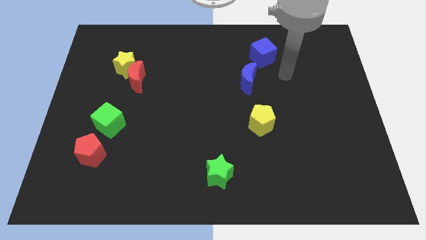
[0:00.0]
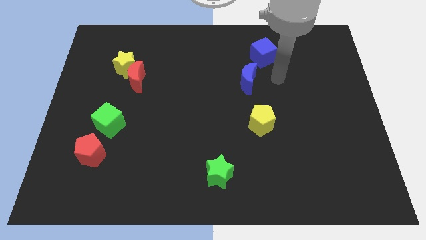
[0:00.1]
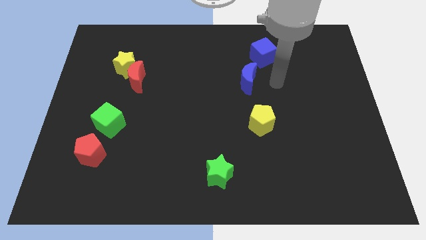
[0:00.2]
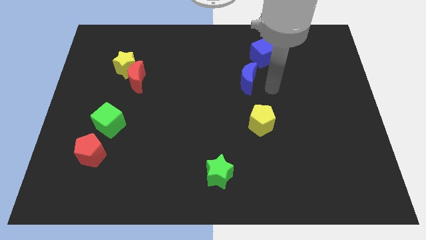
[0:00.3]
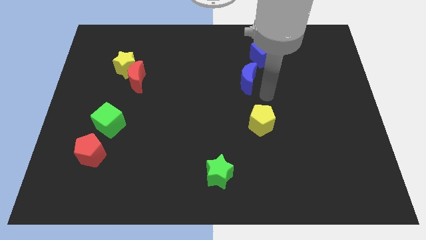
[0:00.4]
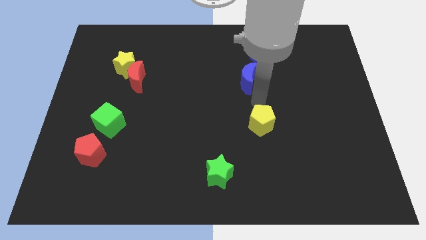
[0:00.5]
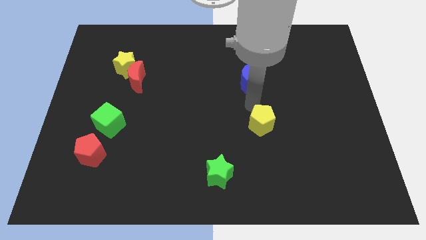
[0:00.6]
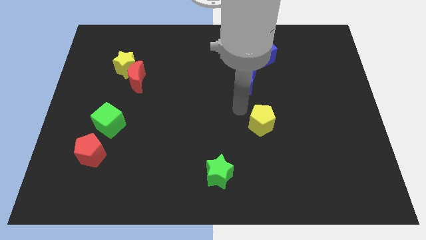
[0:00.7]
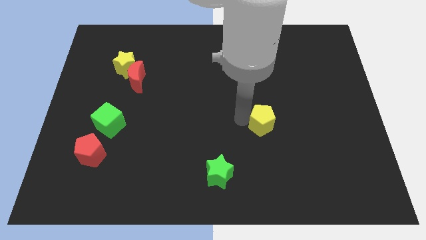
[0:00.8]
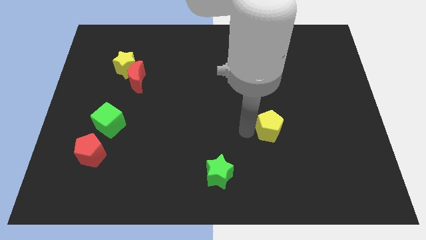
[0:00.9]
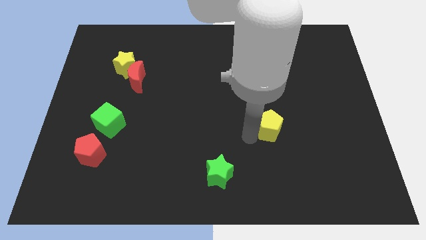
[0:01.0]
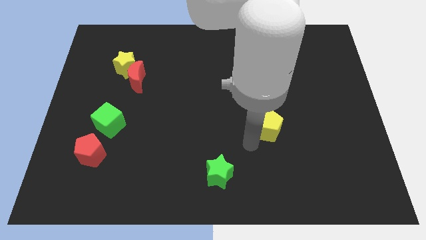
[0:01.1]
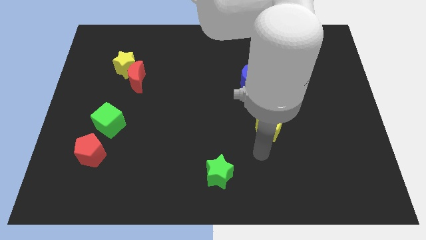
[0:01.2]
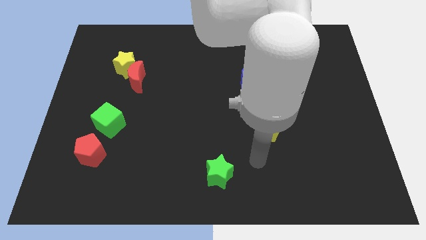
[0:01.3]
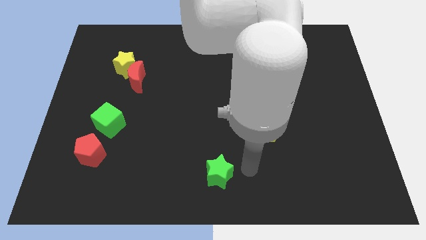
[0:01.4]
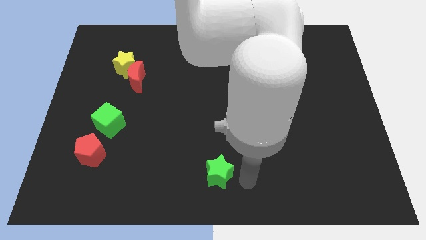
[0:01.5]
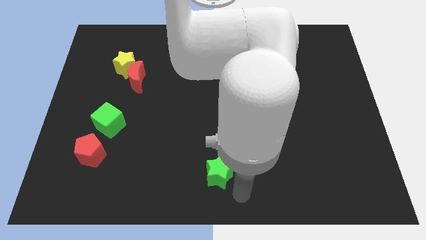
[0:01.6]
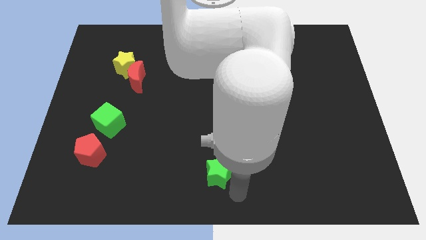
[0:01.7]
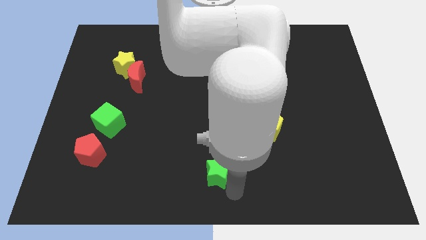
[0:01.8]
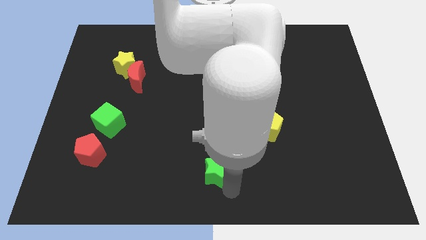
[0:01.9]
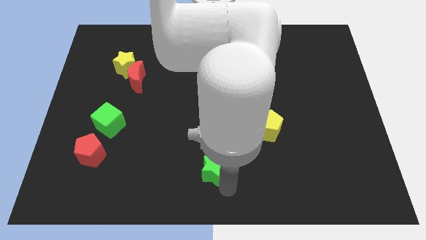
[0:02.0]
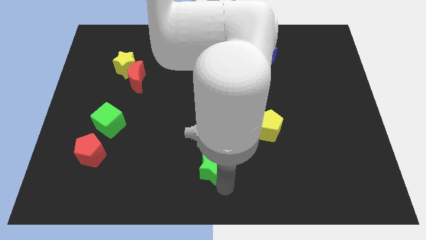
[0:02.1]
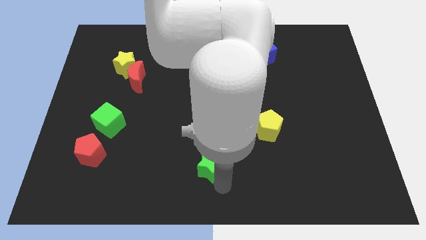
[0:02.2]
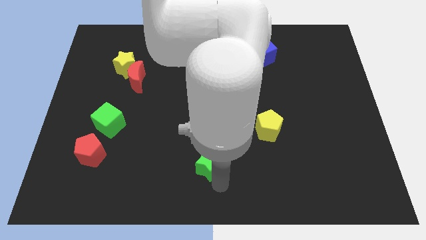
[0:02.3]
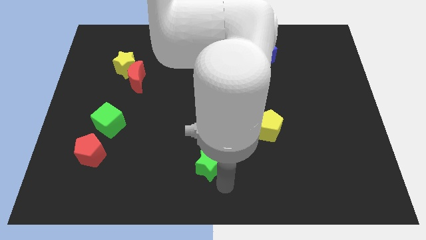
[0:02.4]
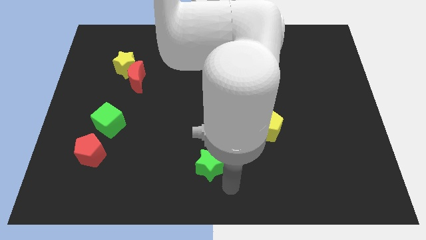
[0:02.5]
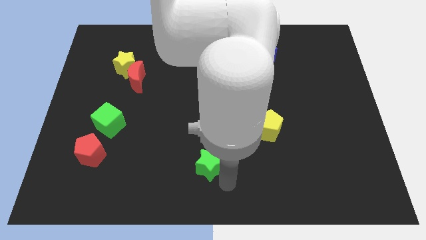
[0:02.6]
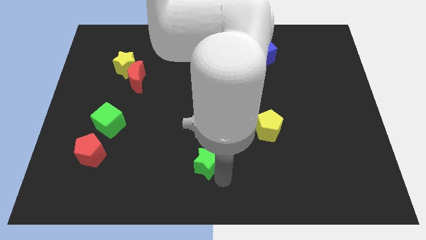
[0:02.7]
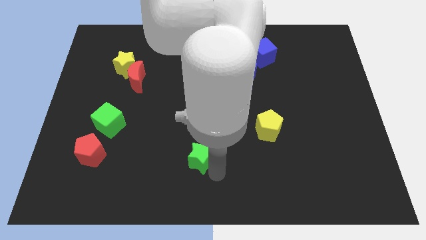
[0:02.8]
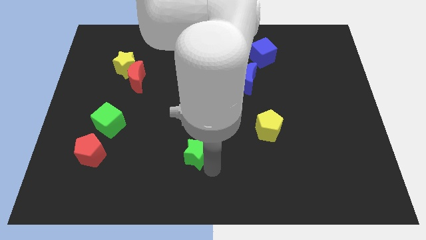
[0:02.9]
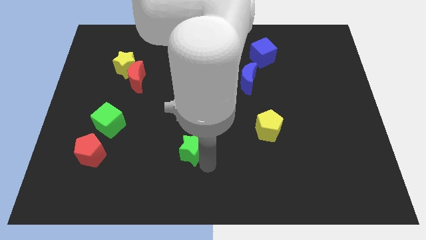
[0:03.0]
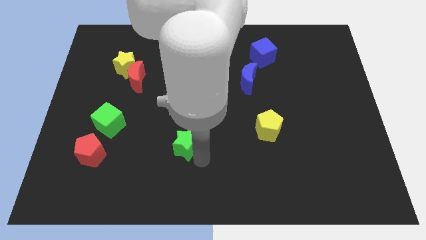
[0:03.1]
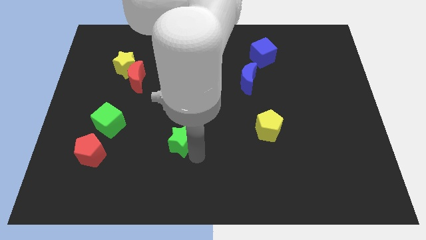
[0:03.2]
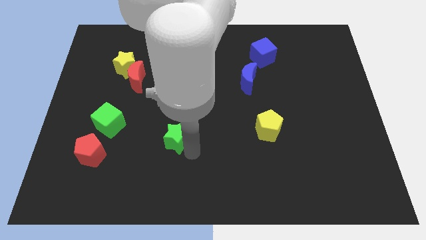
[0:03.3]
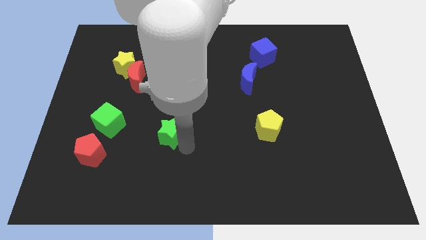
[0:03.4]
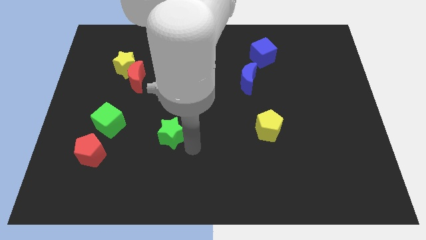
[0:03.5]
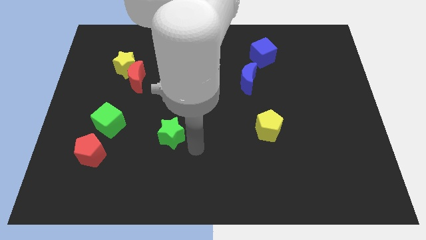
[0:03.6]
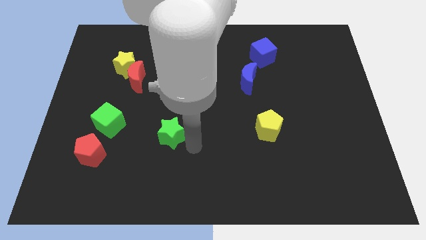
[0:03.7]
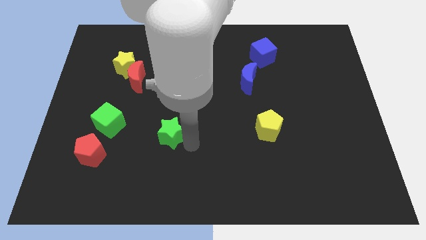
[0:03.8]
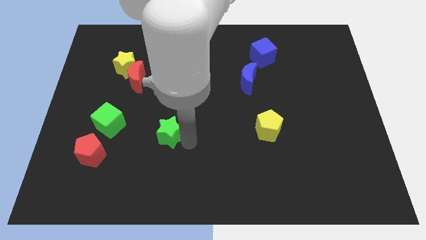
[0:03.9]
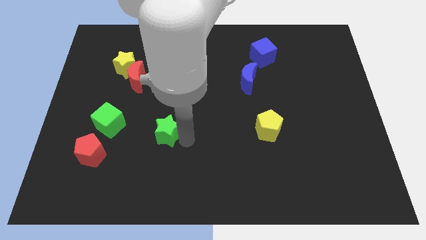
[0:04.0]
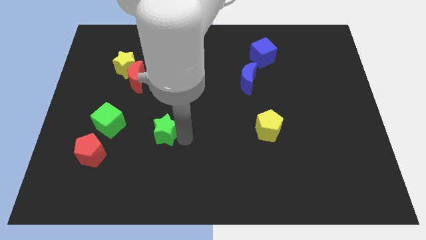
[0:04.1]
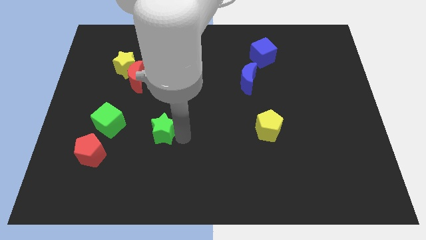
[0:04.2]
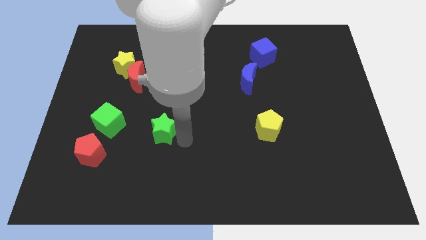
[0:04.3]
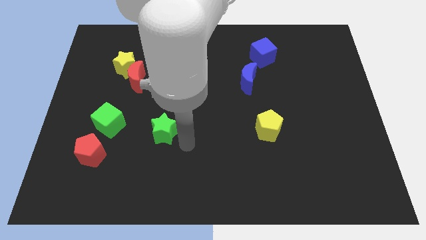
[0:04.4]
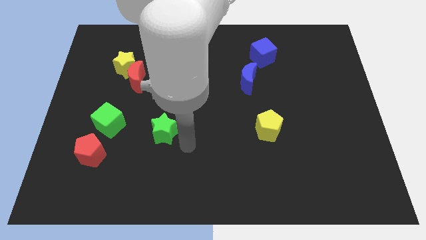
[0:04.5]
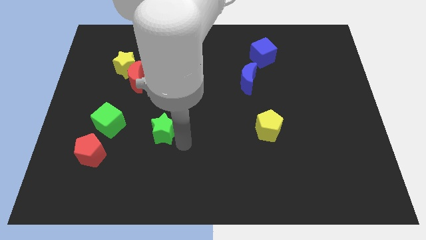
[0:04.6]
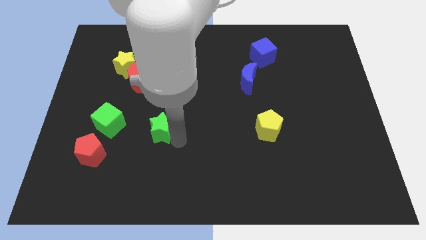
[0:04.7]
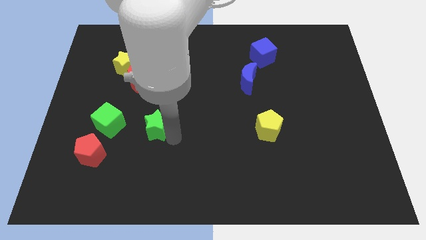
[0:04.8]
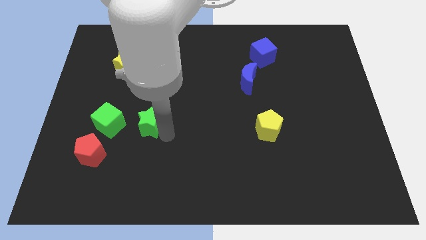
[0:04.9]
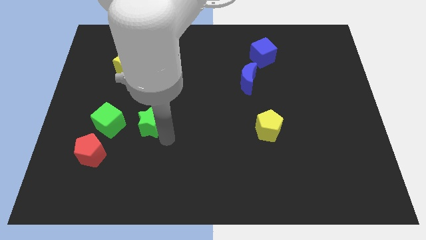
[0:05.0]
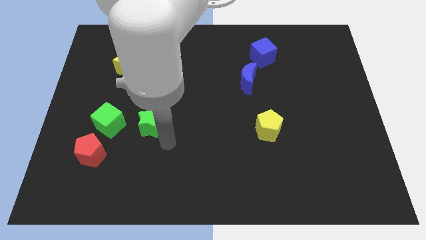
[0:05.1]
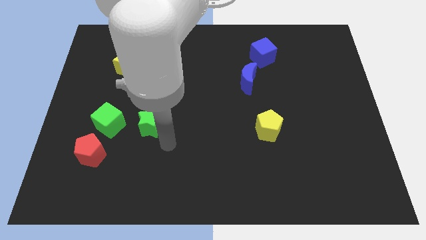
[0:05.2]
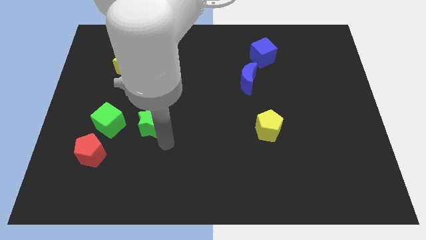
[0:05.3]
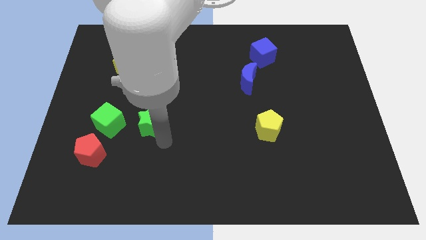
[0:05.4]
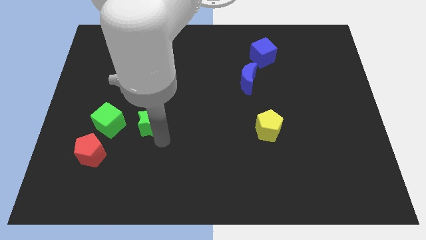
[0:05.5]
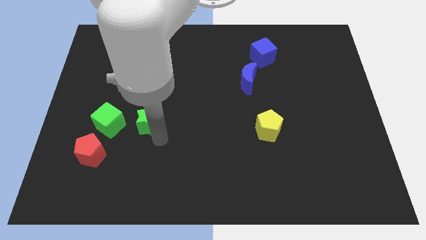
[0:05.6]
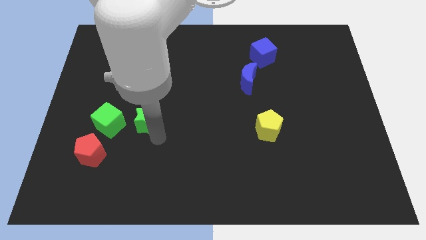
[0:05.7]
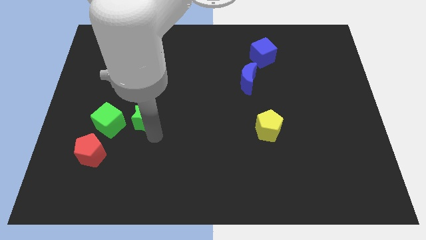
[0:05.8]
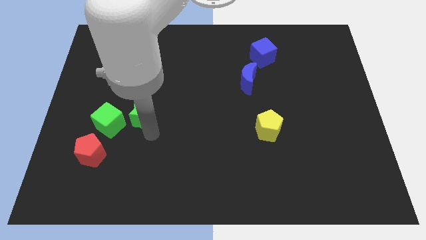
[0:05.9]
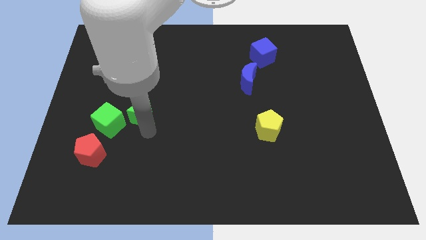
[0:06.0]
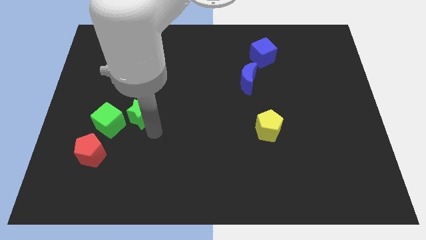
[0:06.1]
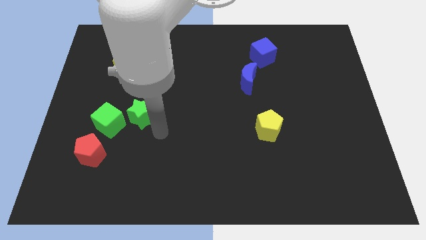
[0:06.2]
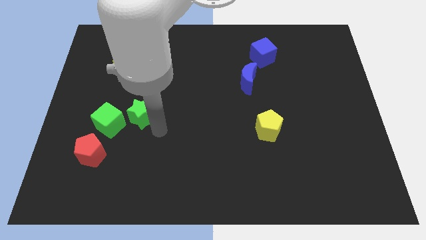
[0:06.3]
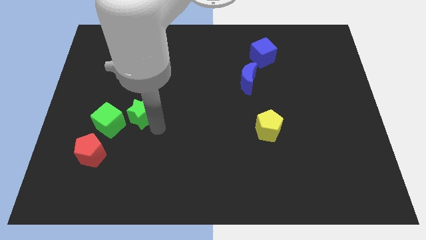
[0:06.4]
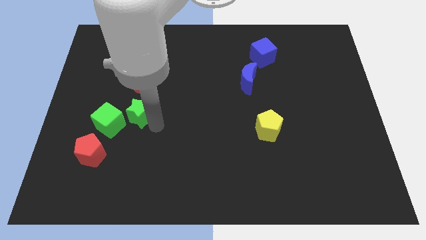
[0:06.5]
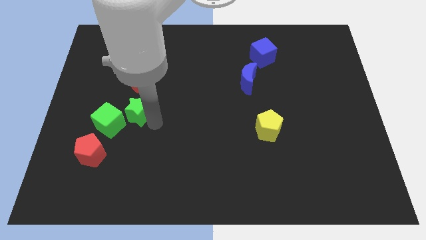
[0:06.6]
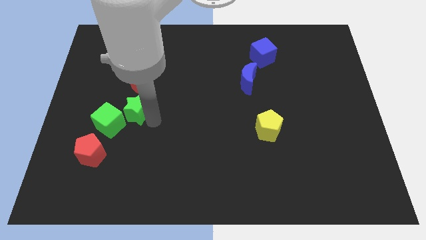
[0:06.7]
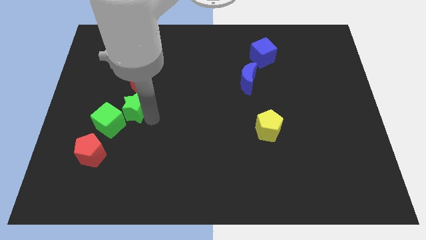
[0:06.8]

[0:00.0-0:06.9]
slide the green star to the bottom of the yellow star
